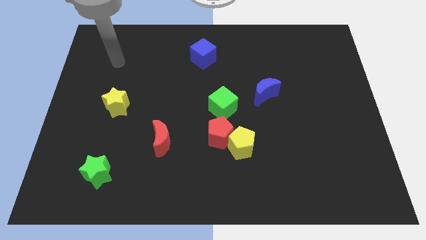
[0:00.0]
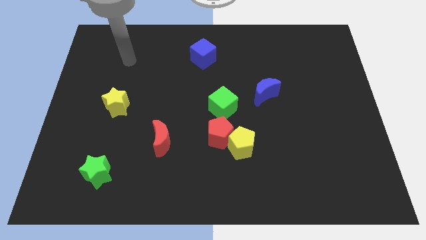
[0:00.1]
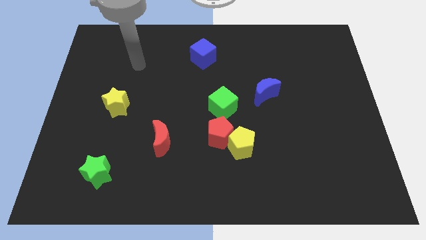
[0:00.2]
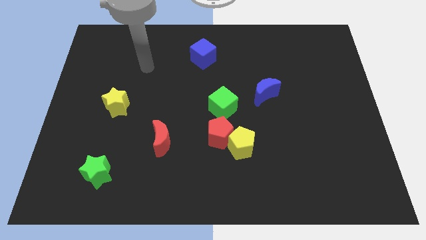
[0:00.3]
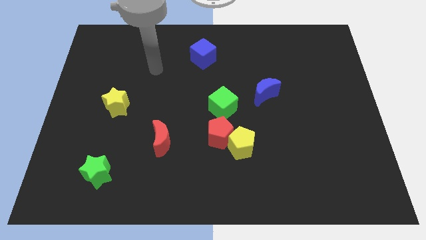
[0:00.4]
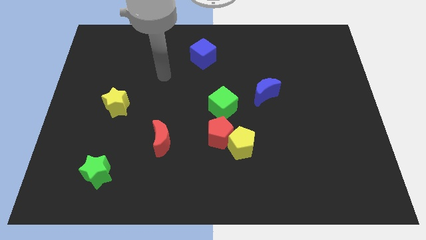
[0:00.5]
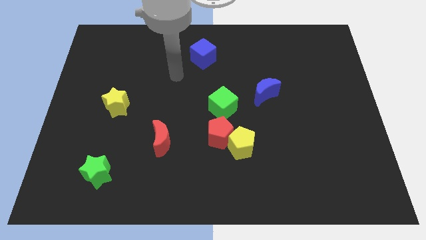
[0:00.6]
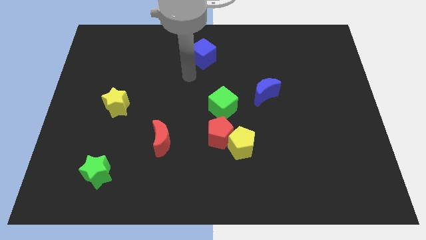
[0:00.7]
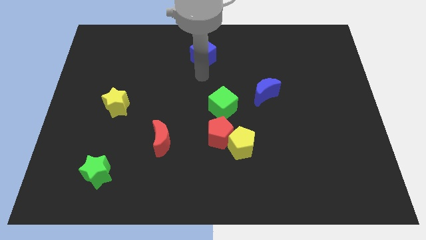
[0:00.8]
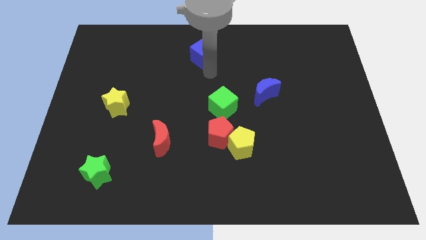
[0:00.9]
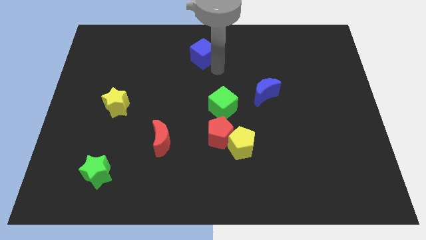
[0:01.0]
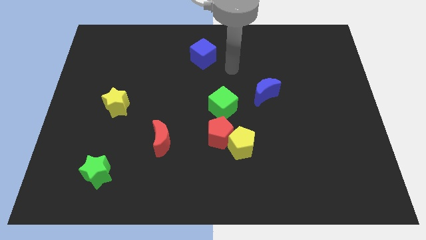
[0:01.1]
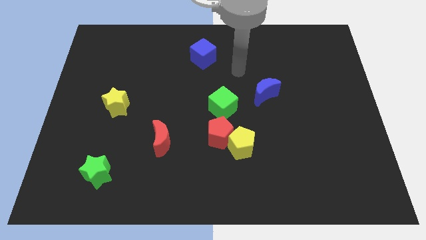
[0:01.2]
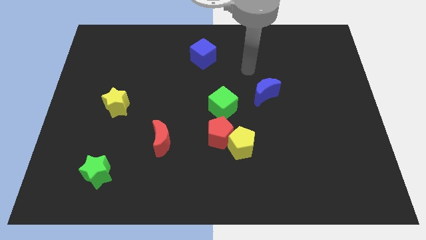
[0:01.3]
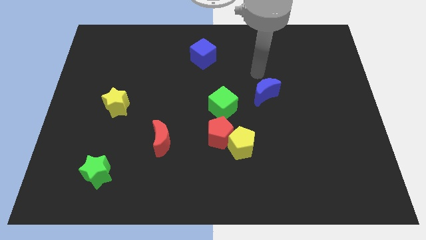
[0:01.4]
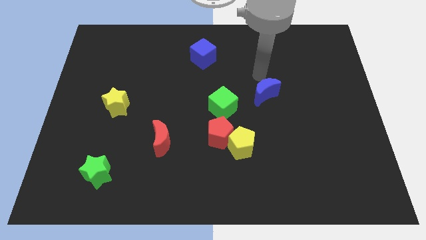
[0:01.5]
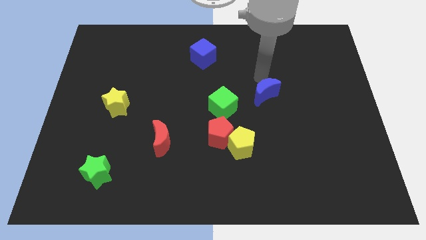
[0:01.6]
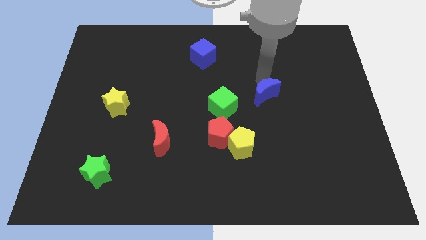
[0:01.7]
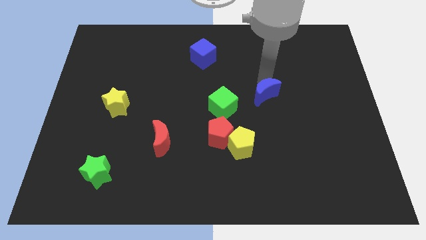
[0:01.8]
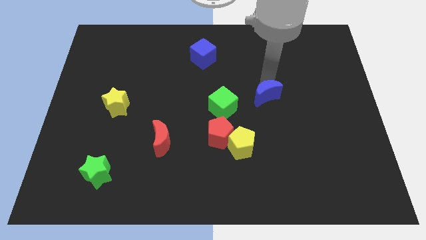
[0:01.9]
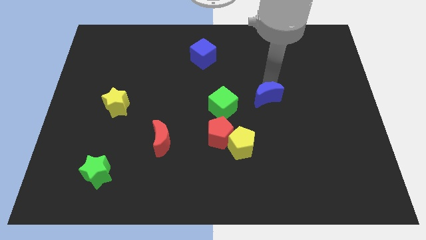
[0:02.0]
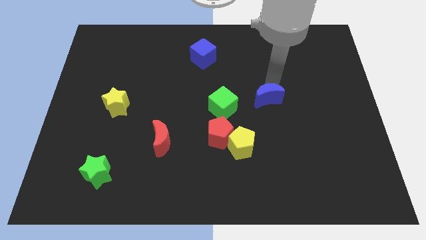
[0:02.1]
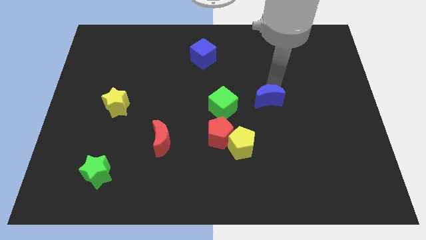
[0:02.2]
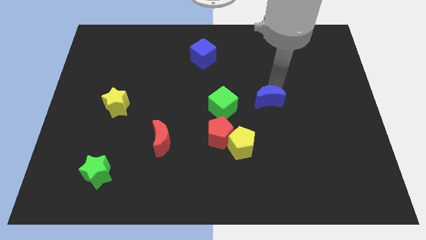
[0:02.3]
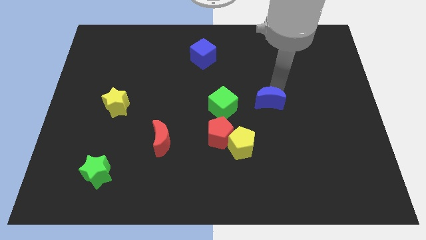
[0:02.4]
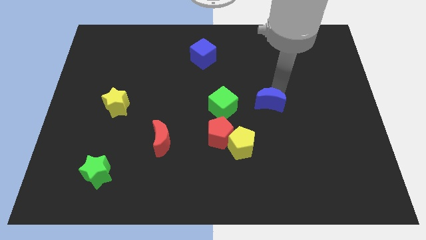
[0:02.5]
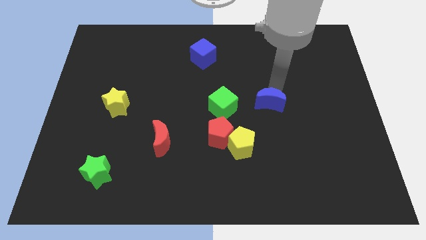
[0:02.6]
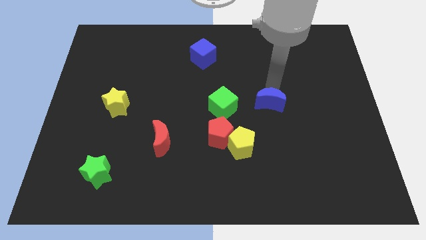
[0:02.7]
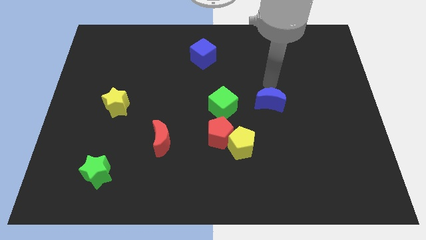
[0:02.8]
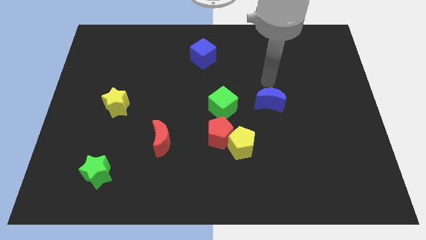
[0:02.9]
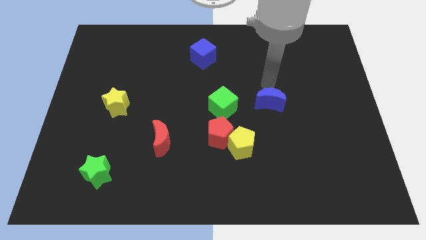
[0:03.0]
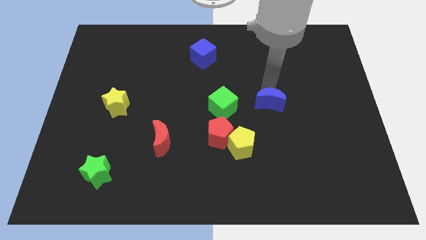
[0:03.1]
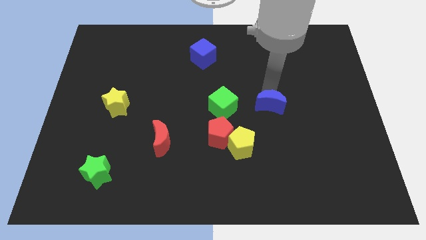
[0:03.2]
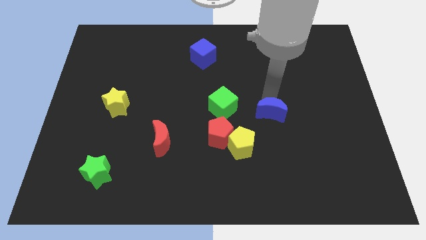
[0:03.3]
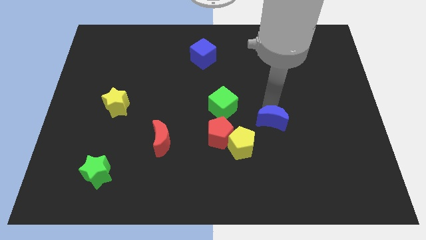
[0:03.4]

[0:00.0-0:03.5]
slightly push the blue moon downwards

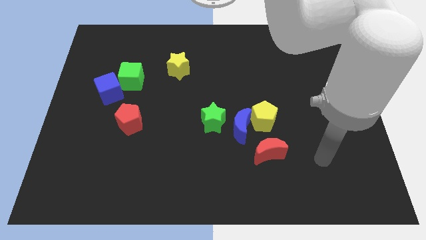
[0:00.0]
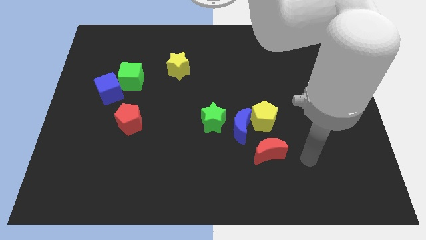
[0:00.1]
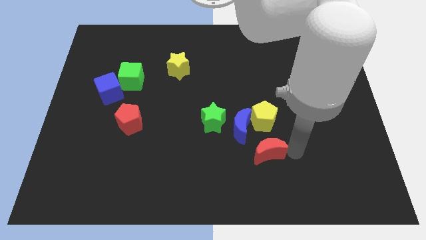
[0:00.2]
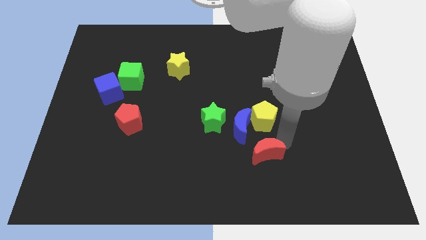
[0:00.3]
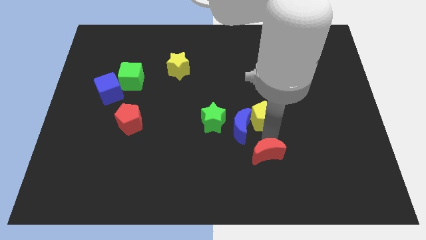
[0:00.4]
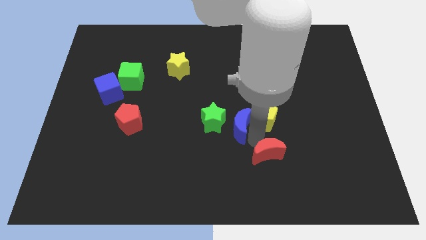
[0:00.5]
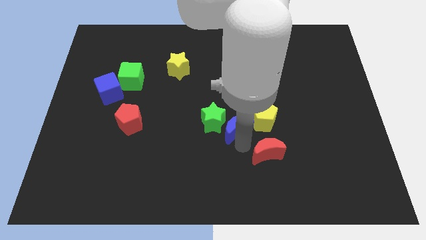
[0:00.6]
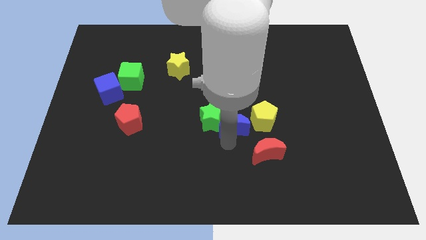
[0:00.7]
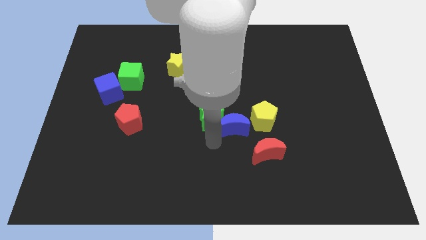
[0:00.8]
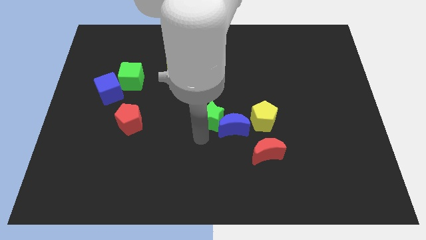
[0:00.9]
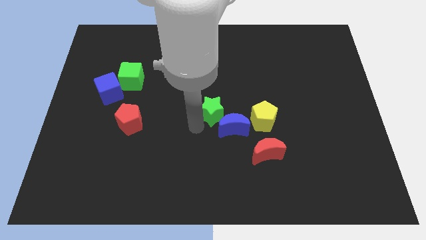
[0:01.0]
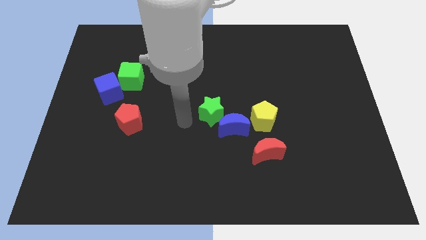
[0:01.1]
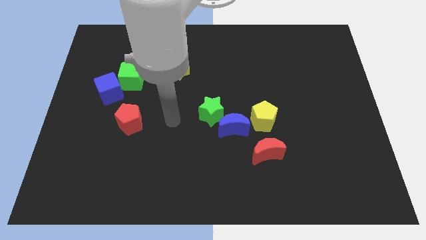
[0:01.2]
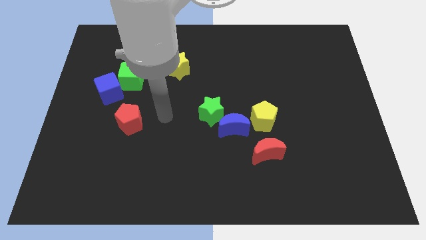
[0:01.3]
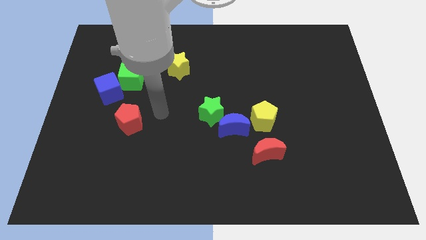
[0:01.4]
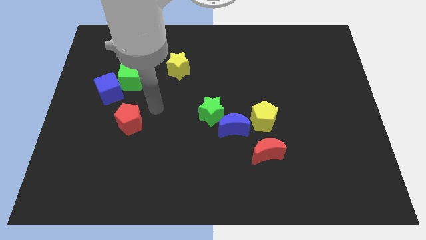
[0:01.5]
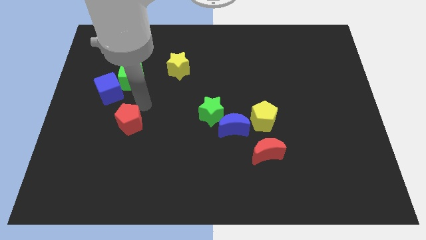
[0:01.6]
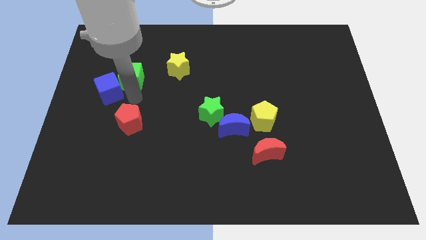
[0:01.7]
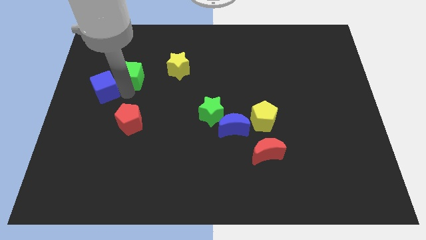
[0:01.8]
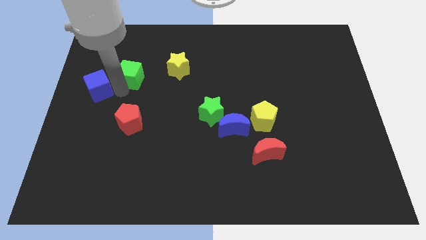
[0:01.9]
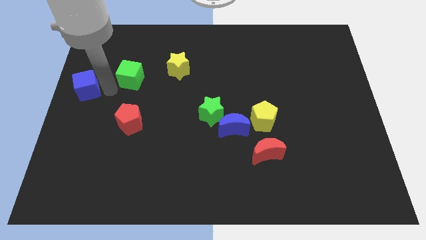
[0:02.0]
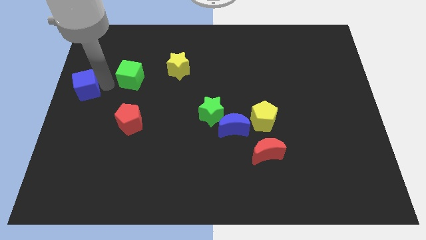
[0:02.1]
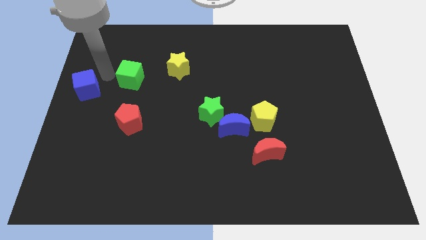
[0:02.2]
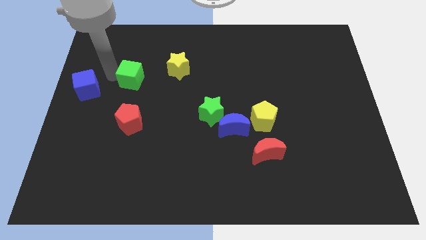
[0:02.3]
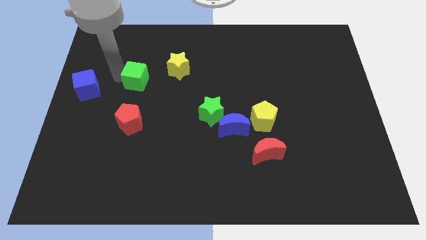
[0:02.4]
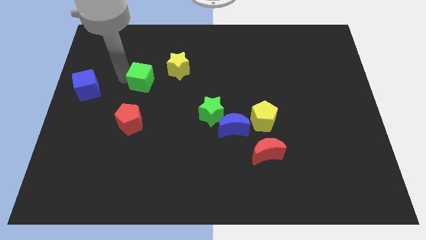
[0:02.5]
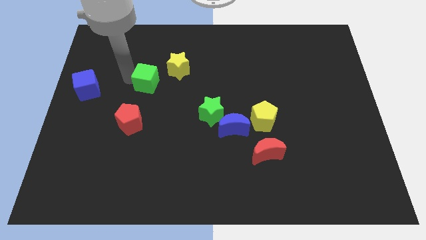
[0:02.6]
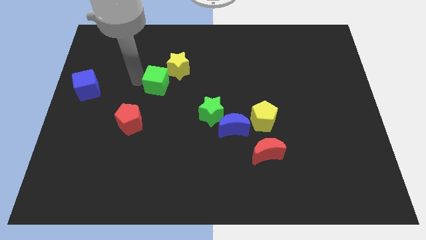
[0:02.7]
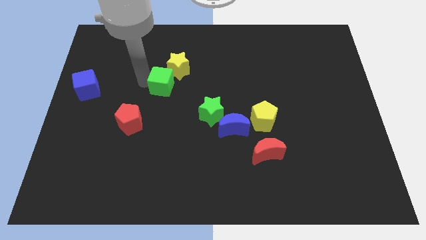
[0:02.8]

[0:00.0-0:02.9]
slightly move the green cube right

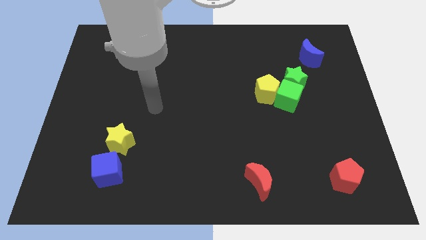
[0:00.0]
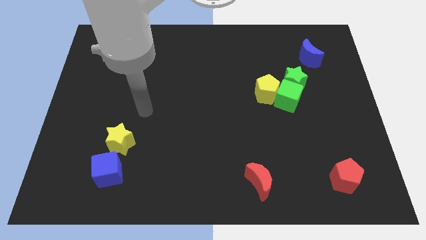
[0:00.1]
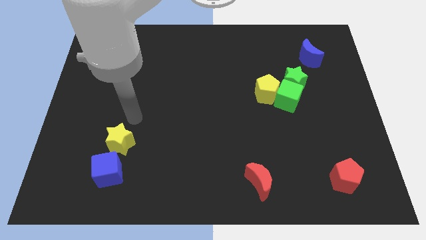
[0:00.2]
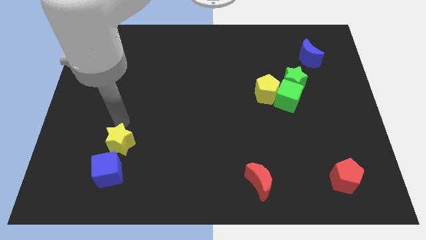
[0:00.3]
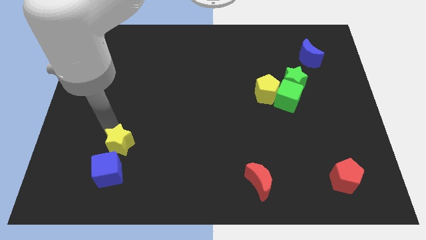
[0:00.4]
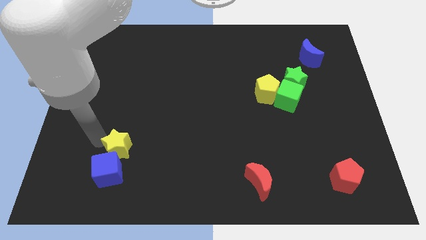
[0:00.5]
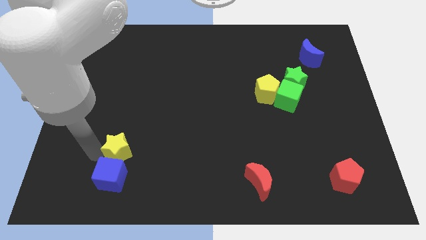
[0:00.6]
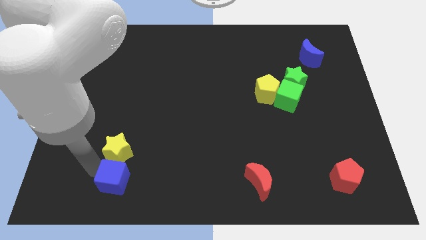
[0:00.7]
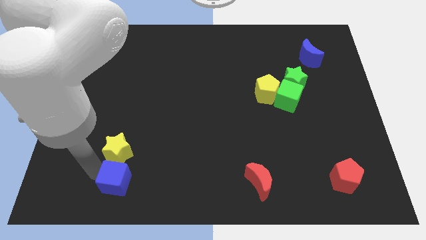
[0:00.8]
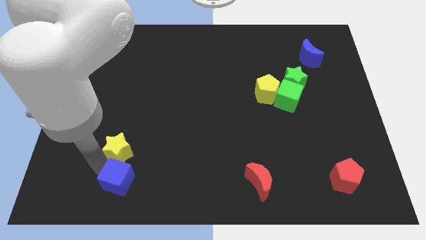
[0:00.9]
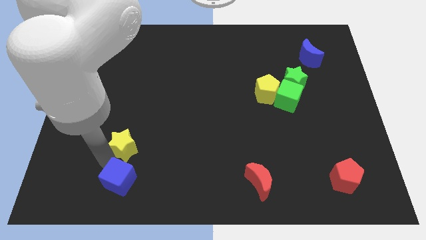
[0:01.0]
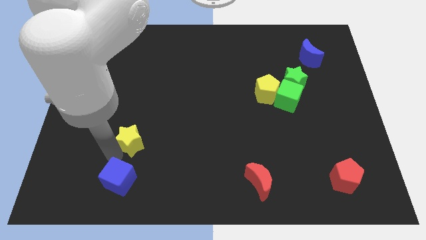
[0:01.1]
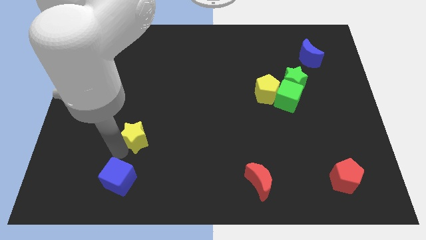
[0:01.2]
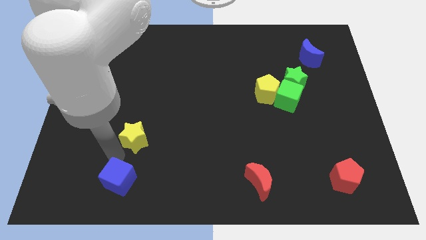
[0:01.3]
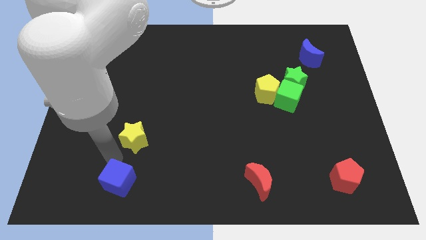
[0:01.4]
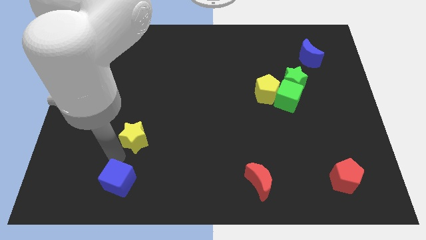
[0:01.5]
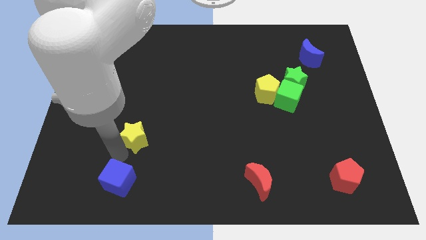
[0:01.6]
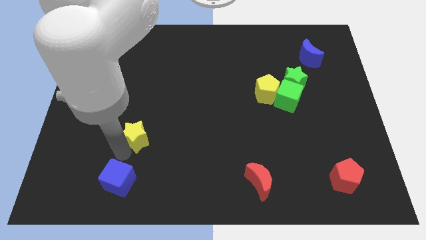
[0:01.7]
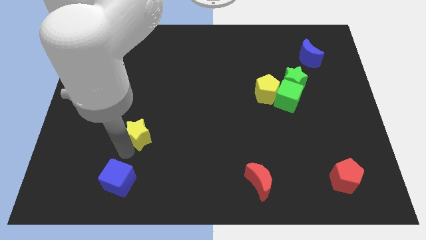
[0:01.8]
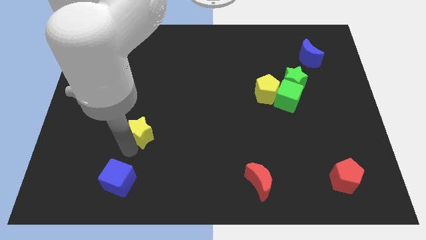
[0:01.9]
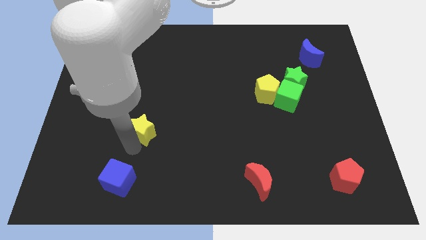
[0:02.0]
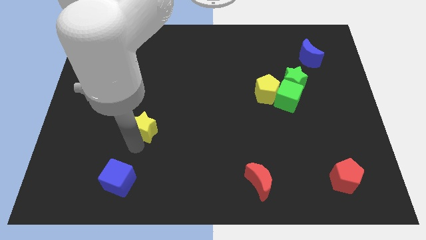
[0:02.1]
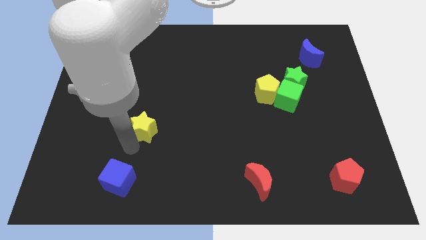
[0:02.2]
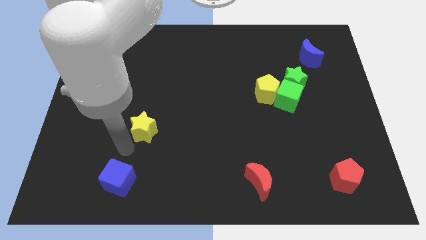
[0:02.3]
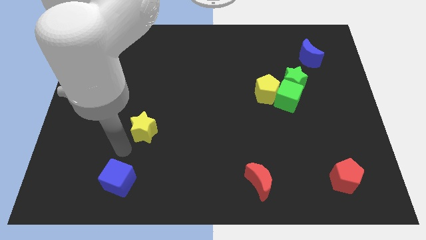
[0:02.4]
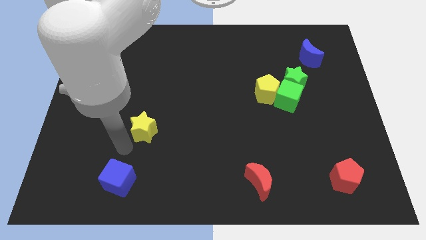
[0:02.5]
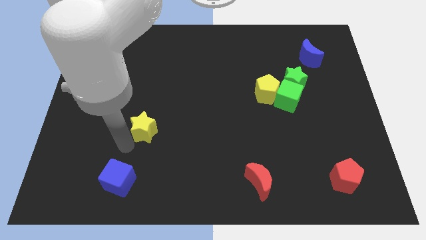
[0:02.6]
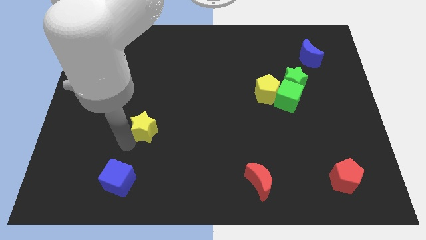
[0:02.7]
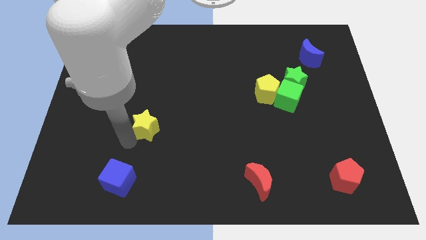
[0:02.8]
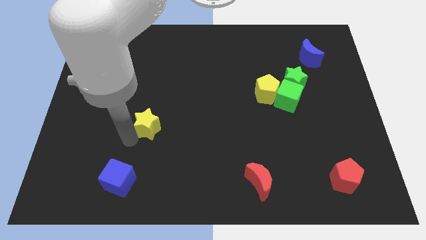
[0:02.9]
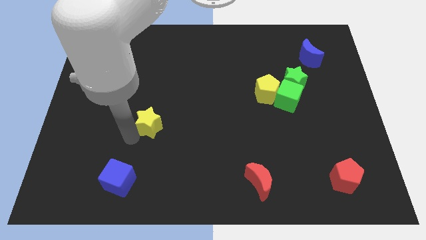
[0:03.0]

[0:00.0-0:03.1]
move the yellow star diagonally up and to the right a little bit
